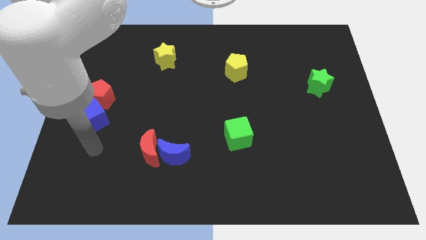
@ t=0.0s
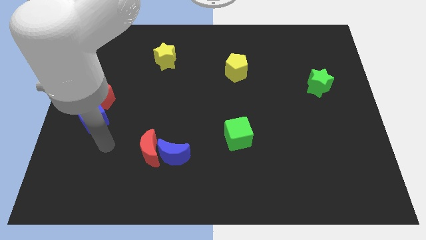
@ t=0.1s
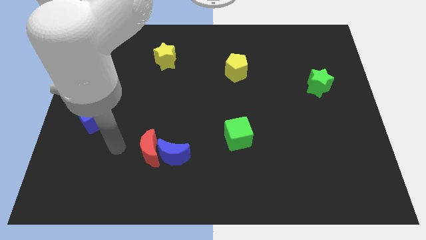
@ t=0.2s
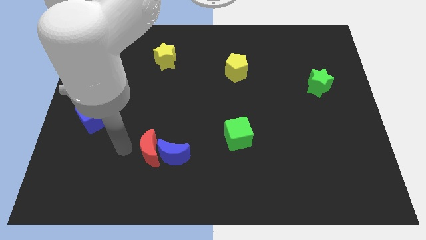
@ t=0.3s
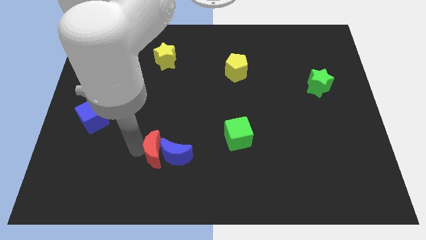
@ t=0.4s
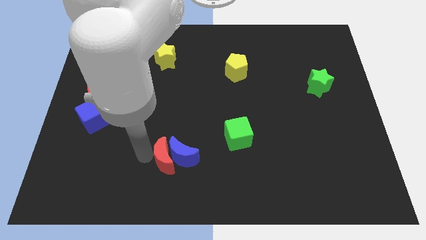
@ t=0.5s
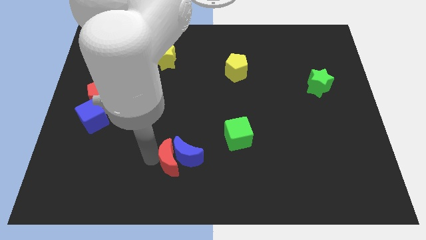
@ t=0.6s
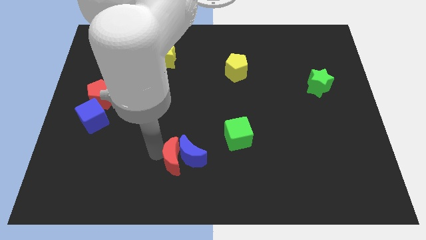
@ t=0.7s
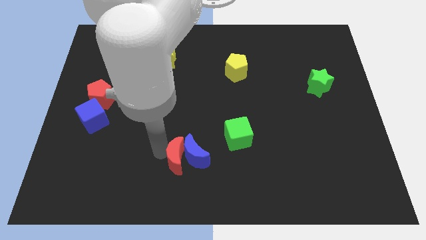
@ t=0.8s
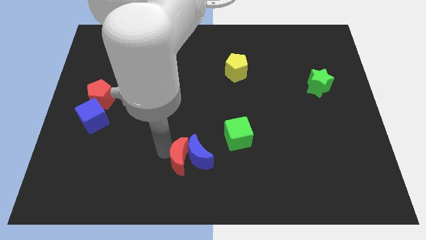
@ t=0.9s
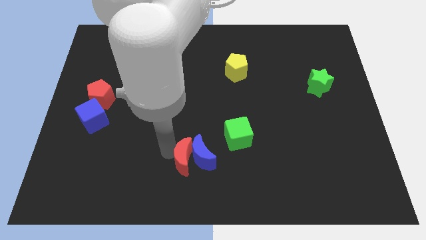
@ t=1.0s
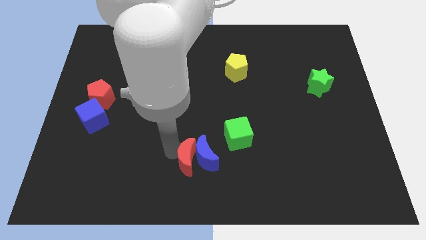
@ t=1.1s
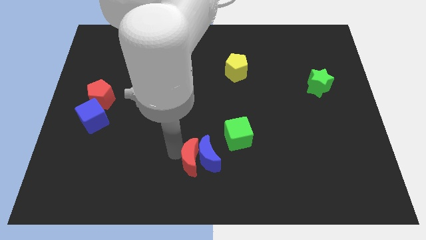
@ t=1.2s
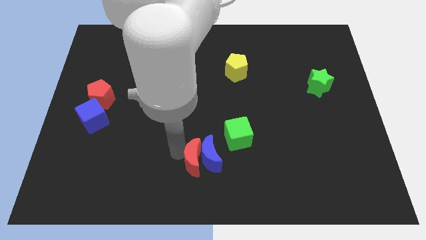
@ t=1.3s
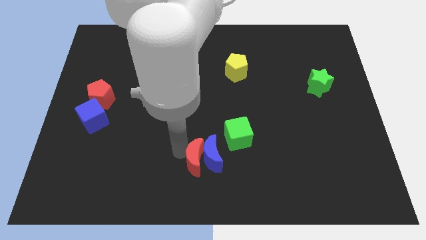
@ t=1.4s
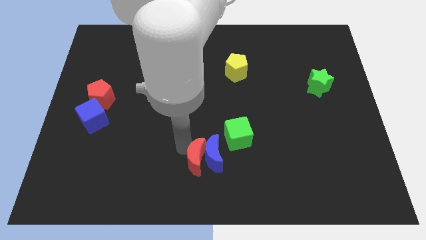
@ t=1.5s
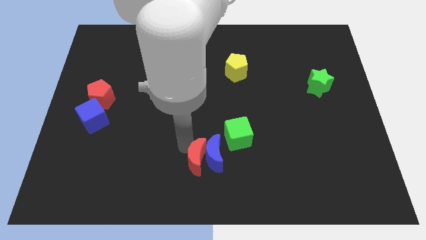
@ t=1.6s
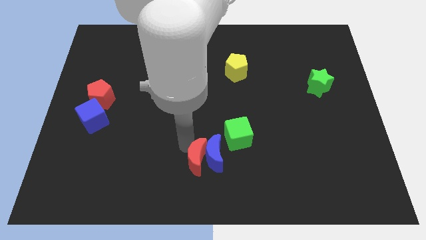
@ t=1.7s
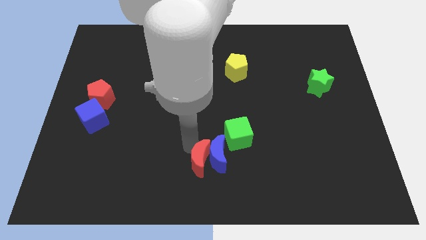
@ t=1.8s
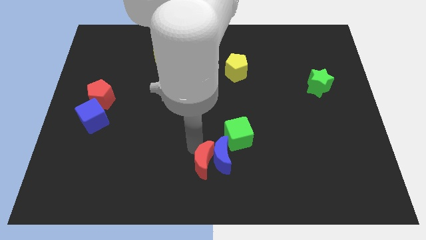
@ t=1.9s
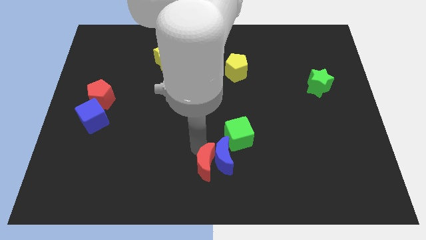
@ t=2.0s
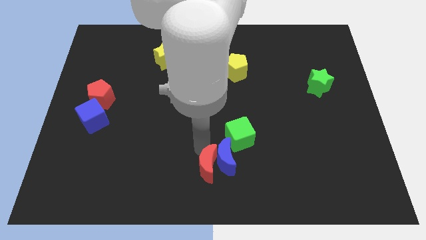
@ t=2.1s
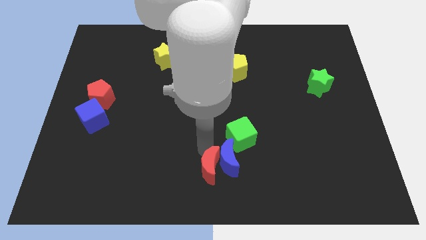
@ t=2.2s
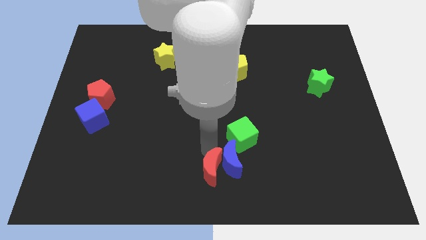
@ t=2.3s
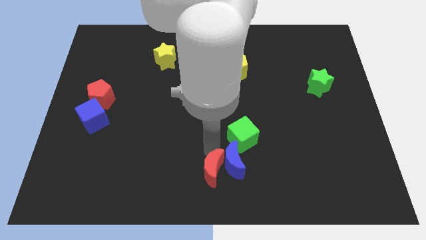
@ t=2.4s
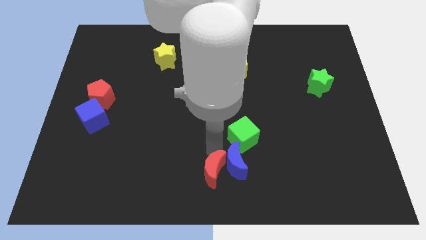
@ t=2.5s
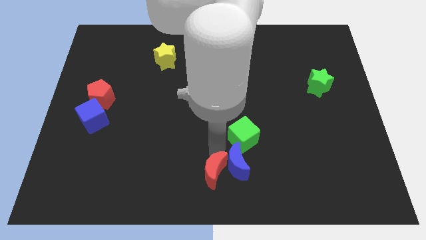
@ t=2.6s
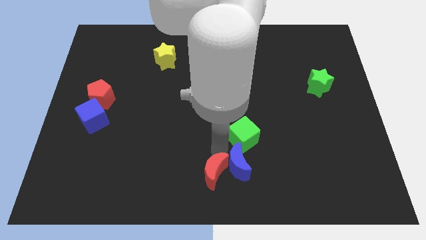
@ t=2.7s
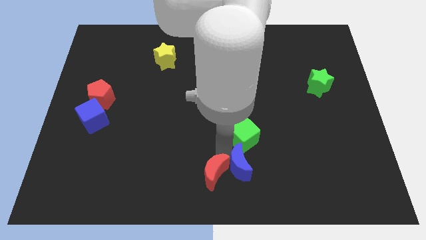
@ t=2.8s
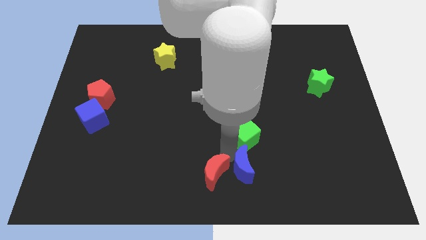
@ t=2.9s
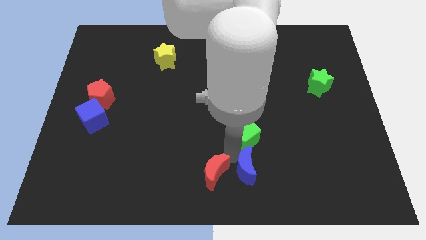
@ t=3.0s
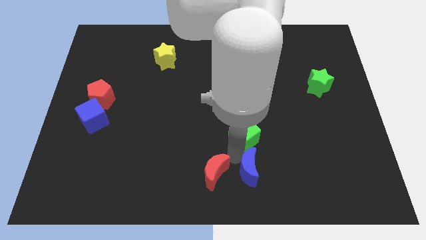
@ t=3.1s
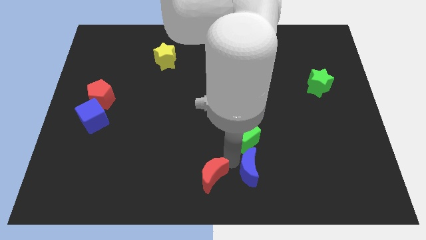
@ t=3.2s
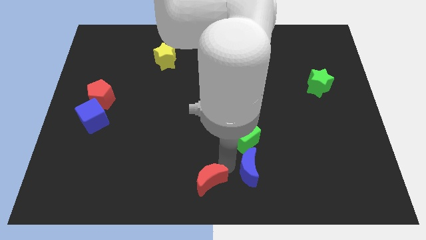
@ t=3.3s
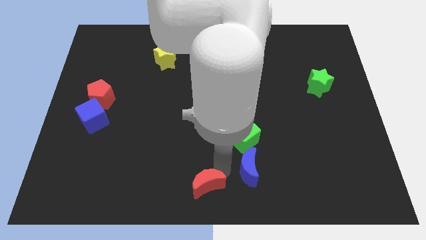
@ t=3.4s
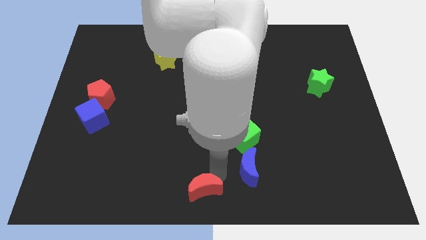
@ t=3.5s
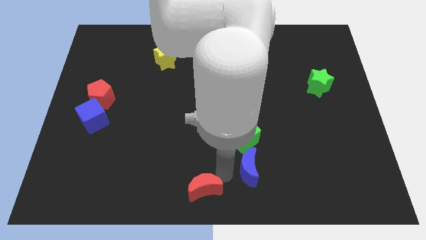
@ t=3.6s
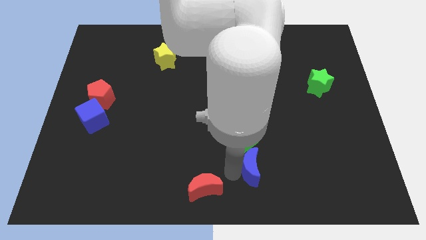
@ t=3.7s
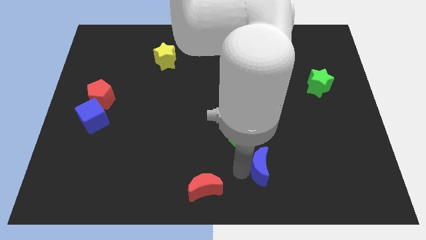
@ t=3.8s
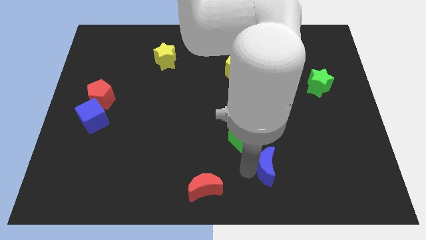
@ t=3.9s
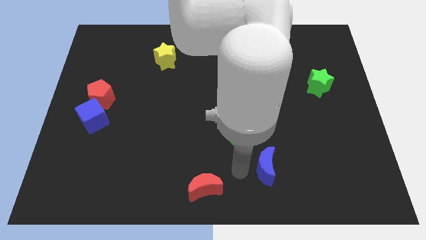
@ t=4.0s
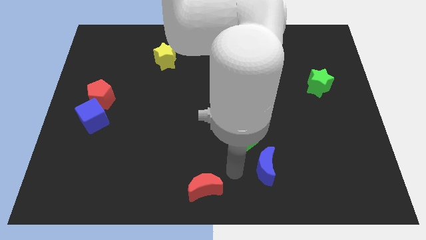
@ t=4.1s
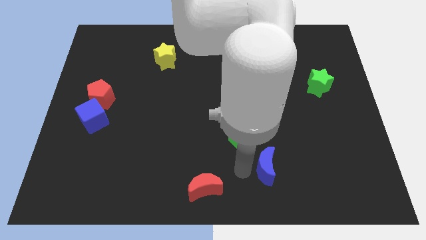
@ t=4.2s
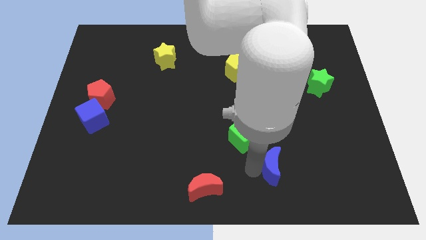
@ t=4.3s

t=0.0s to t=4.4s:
push the blue moon to the right

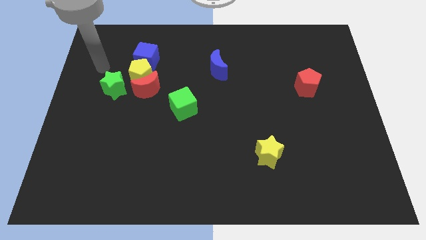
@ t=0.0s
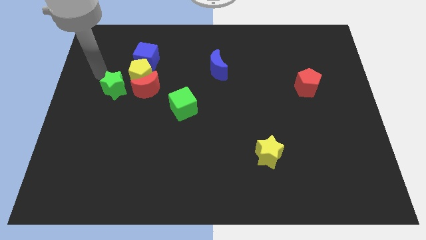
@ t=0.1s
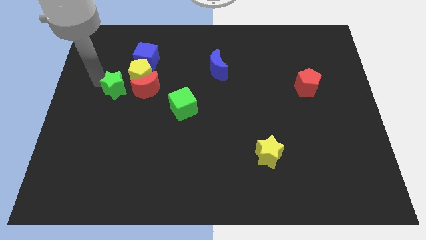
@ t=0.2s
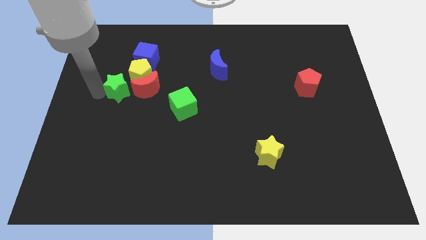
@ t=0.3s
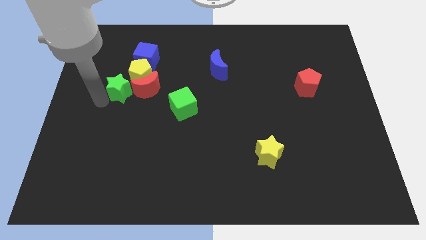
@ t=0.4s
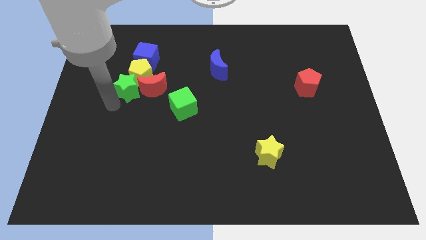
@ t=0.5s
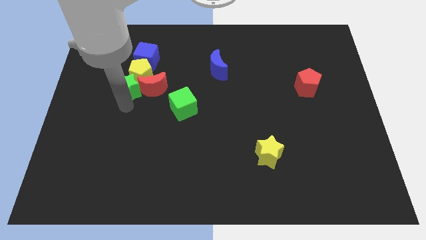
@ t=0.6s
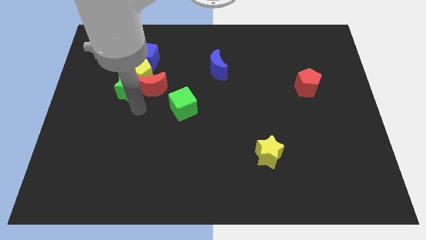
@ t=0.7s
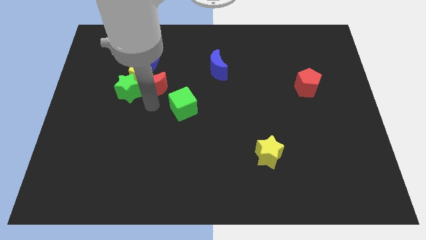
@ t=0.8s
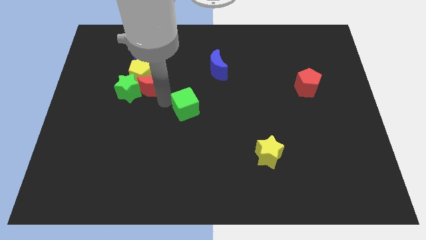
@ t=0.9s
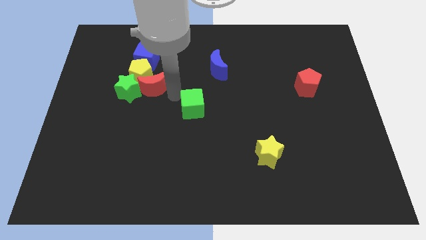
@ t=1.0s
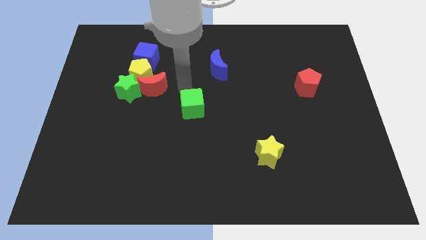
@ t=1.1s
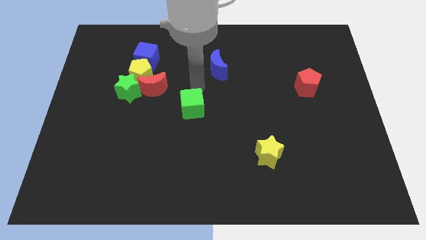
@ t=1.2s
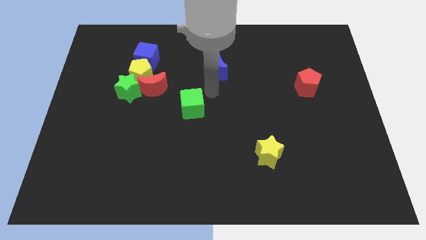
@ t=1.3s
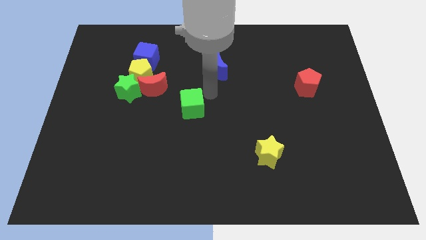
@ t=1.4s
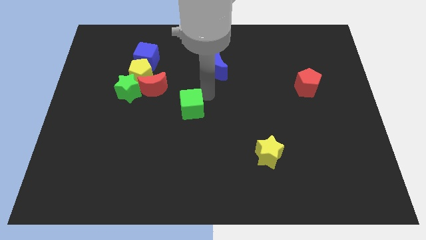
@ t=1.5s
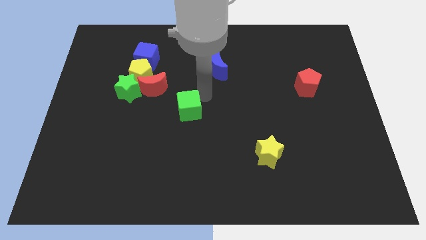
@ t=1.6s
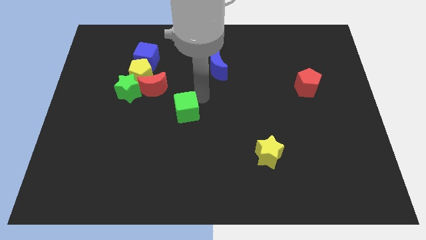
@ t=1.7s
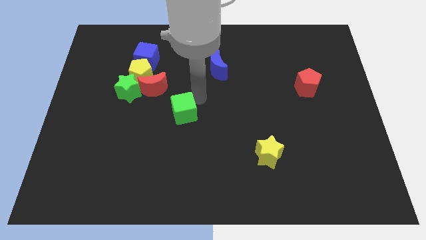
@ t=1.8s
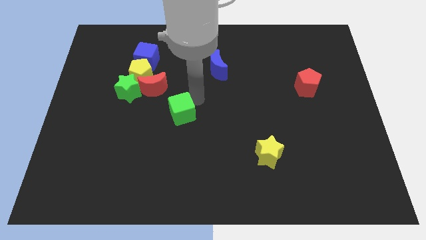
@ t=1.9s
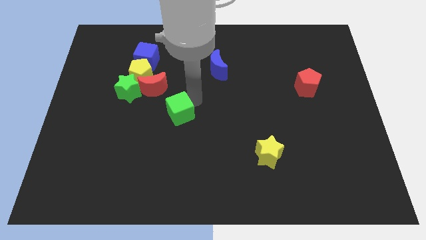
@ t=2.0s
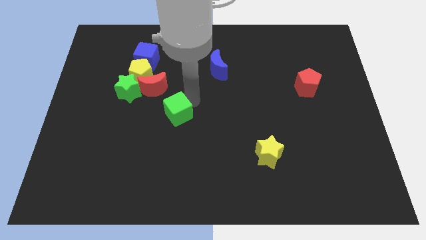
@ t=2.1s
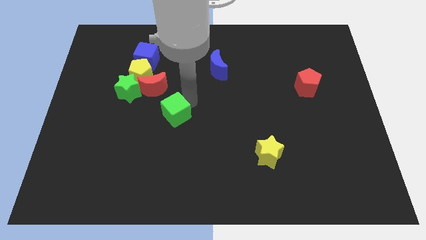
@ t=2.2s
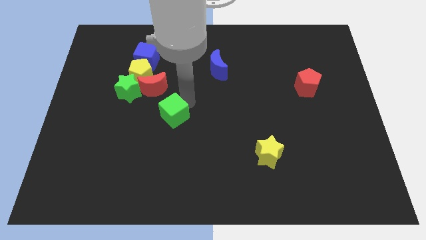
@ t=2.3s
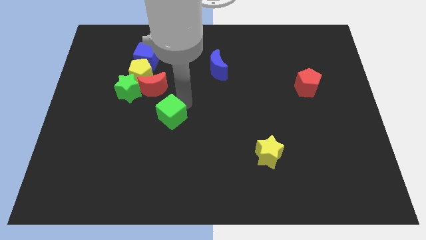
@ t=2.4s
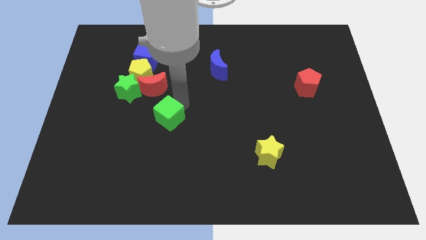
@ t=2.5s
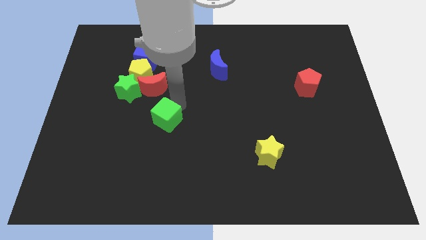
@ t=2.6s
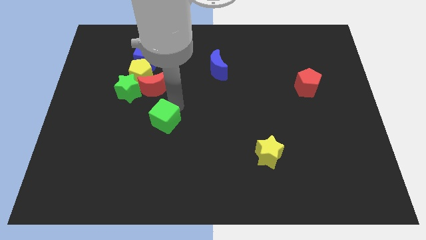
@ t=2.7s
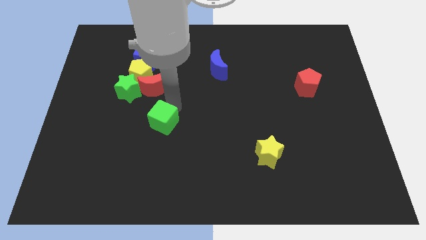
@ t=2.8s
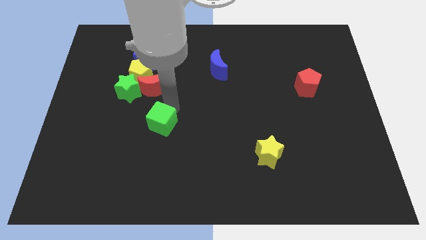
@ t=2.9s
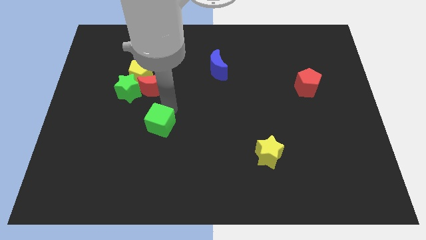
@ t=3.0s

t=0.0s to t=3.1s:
slightly push the green cube down and to the left

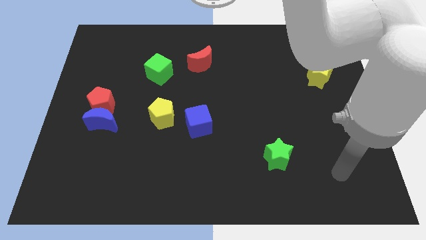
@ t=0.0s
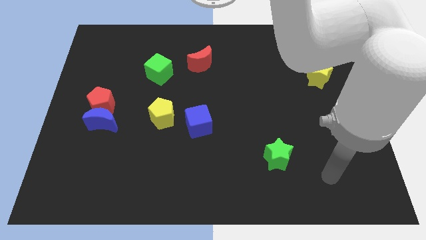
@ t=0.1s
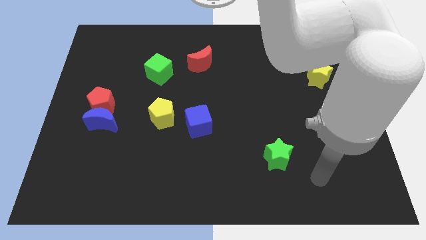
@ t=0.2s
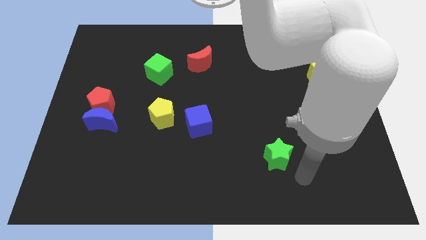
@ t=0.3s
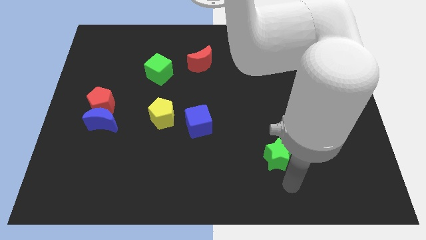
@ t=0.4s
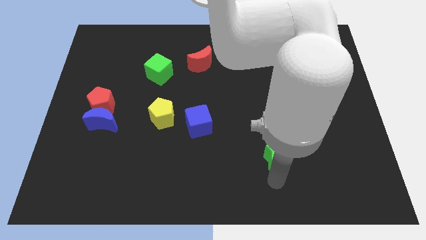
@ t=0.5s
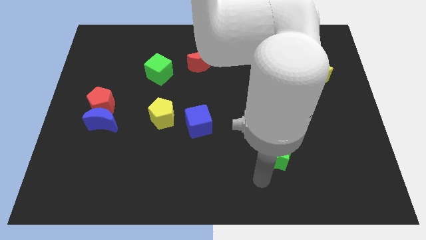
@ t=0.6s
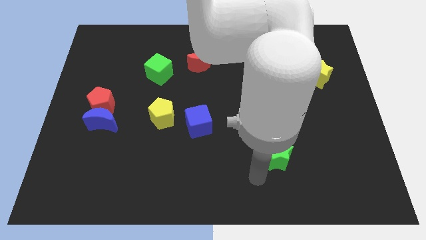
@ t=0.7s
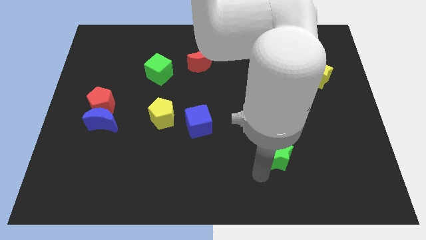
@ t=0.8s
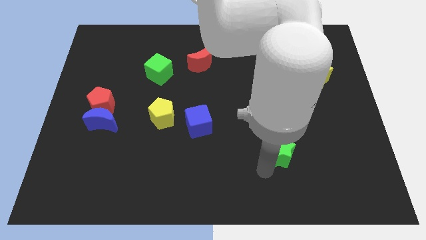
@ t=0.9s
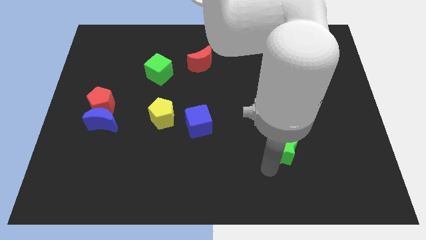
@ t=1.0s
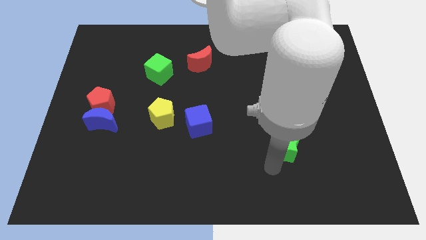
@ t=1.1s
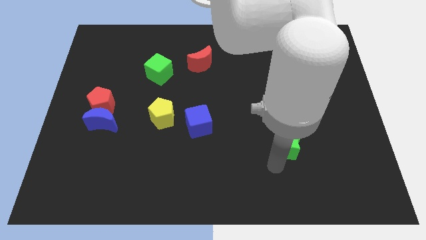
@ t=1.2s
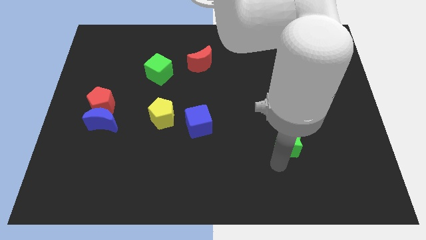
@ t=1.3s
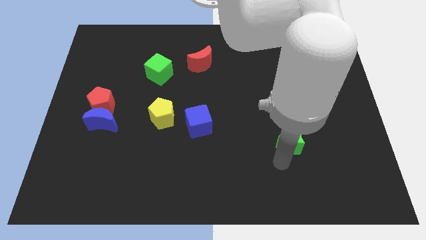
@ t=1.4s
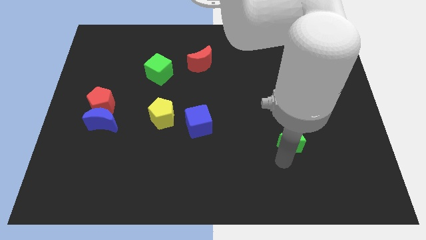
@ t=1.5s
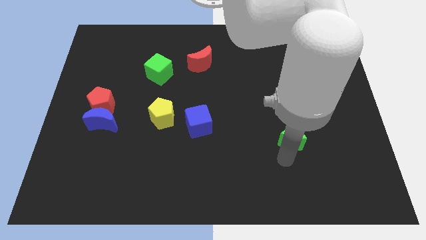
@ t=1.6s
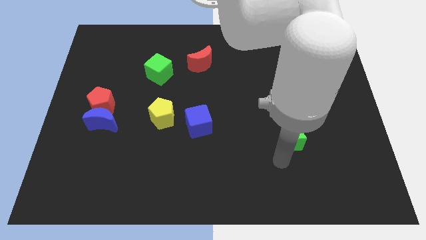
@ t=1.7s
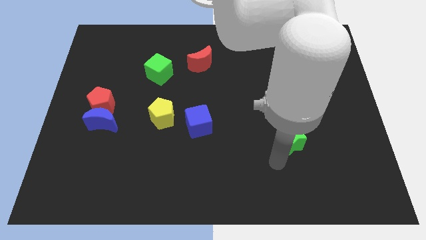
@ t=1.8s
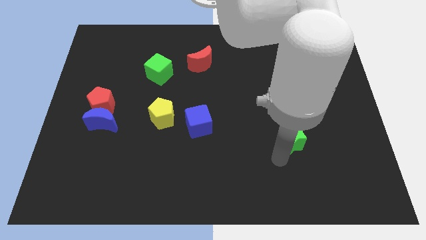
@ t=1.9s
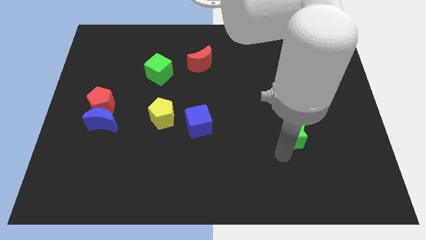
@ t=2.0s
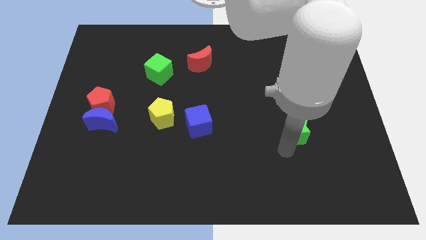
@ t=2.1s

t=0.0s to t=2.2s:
slightly move the green star up and to the right
